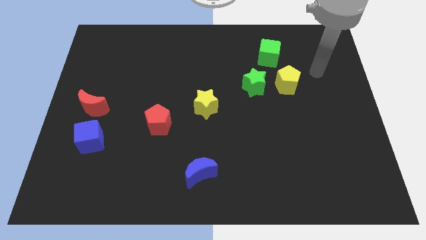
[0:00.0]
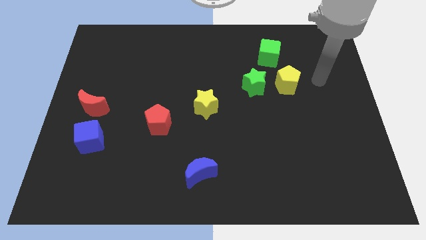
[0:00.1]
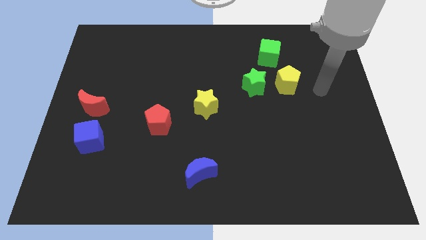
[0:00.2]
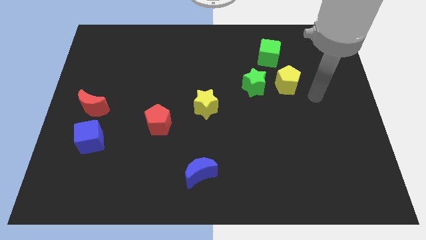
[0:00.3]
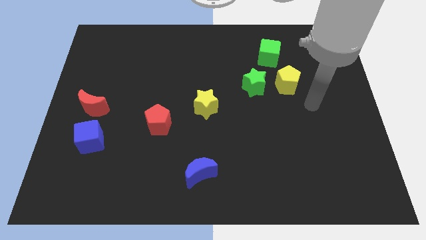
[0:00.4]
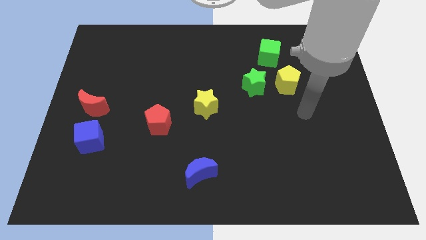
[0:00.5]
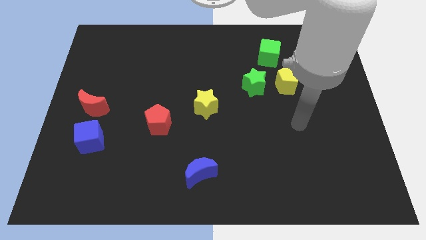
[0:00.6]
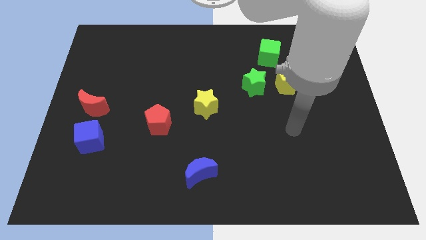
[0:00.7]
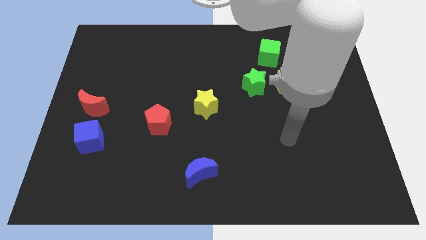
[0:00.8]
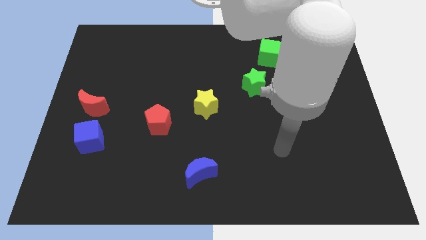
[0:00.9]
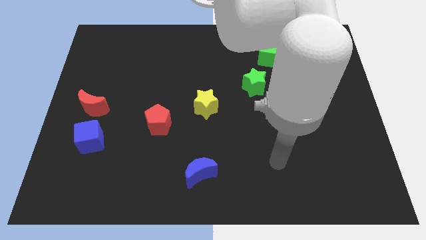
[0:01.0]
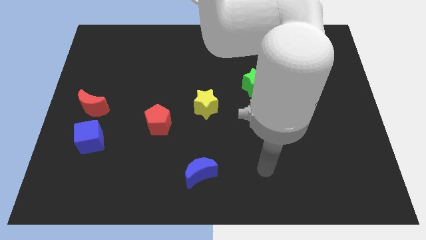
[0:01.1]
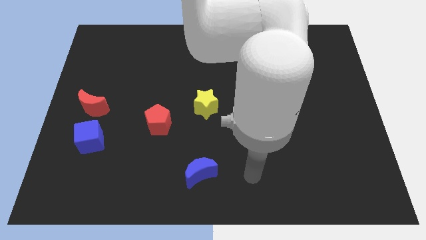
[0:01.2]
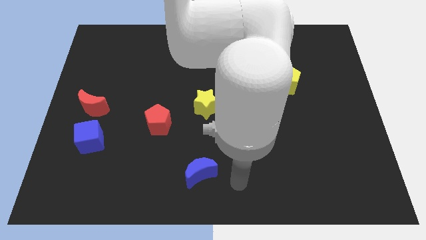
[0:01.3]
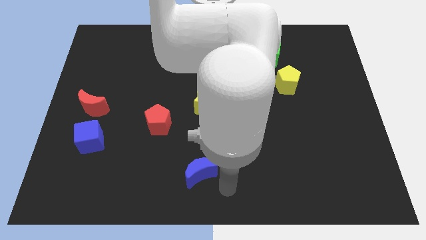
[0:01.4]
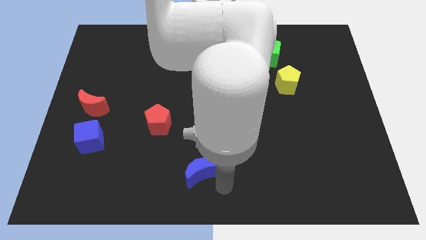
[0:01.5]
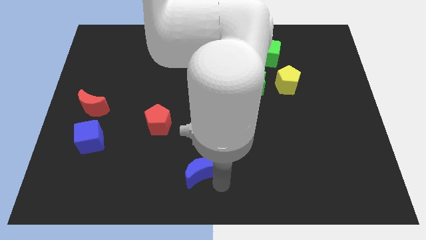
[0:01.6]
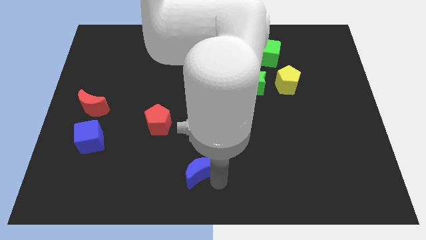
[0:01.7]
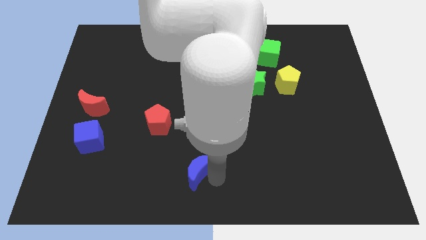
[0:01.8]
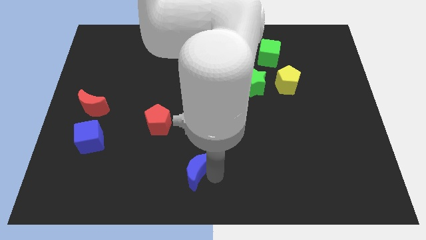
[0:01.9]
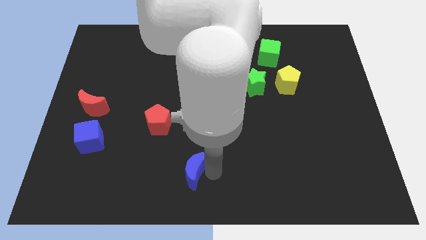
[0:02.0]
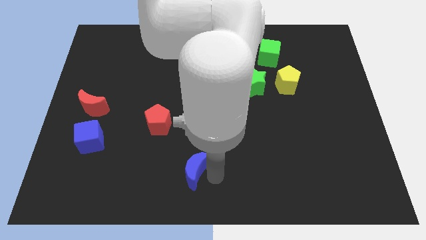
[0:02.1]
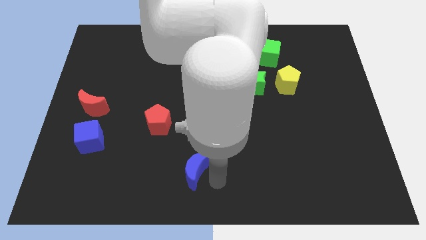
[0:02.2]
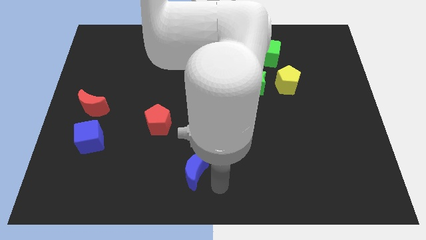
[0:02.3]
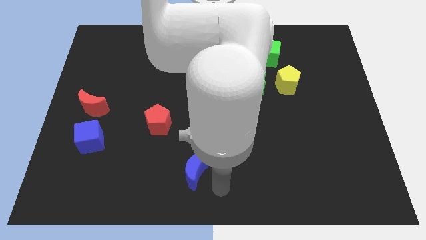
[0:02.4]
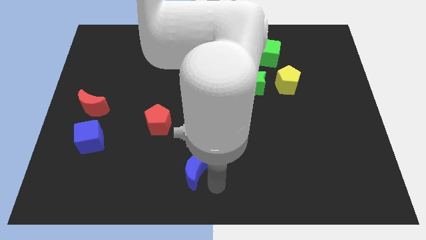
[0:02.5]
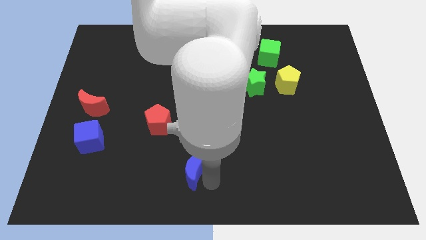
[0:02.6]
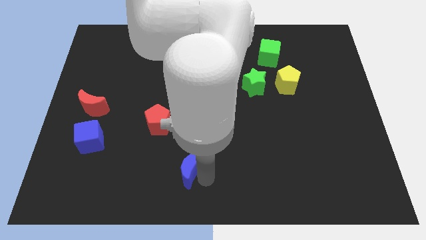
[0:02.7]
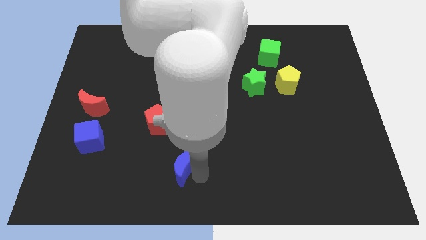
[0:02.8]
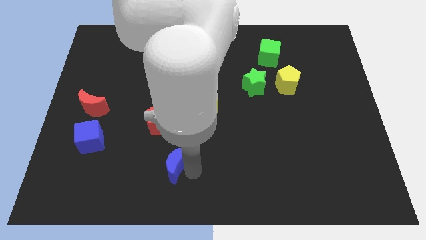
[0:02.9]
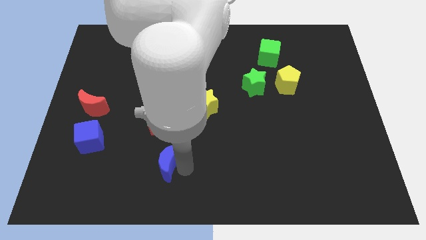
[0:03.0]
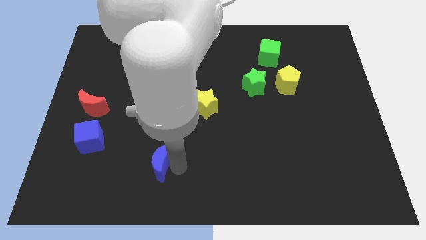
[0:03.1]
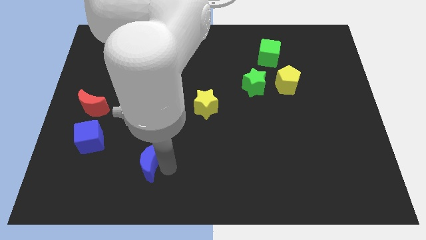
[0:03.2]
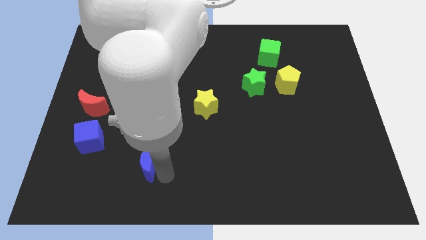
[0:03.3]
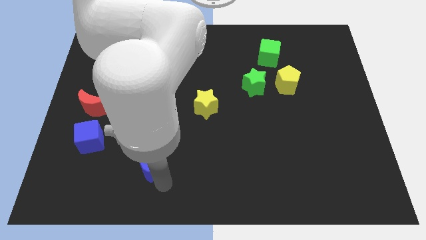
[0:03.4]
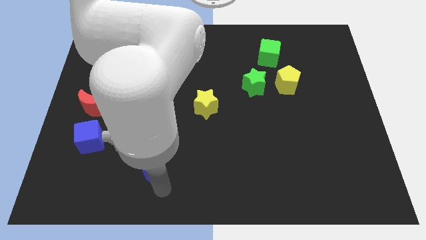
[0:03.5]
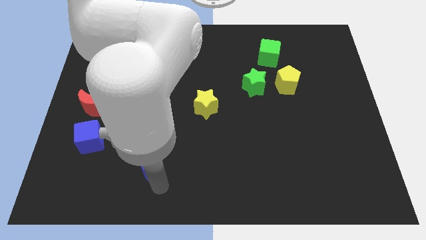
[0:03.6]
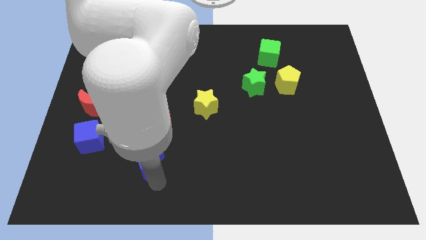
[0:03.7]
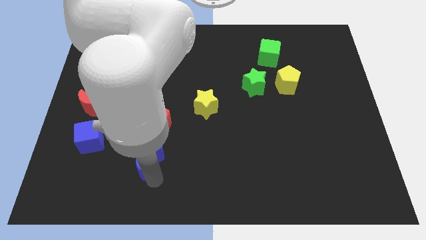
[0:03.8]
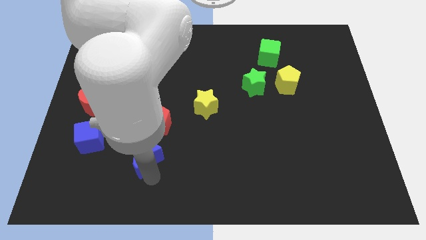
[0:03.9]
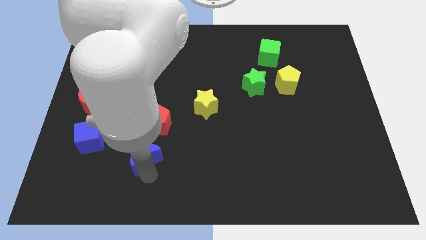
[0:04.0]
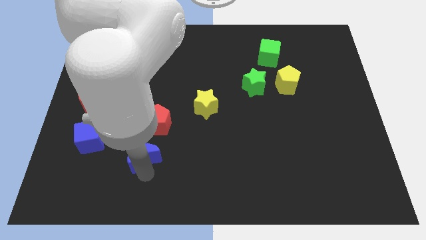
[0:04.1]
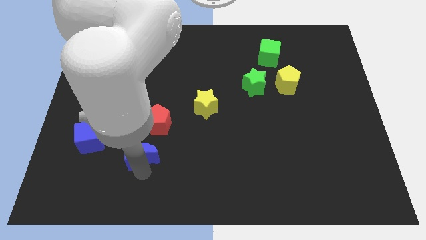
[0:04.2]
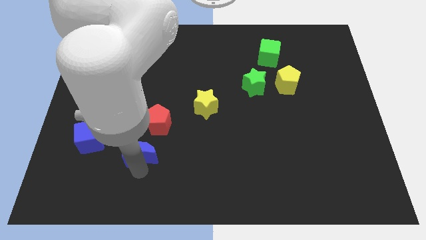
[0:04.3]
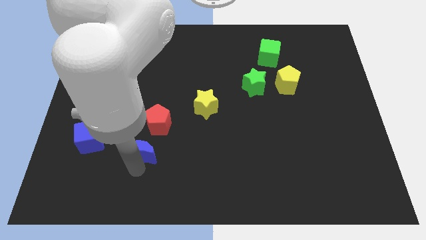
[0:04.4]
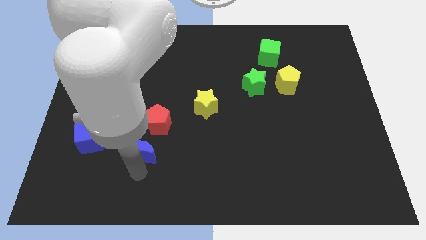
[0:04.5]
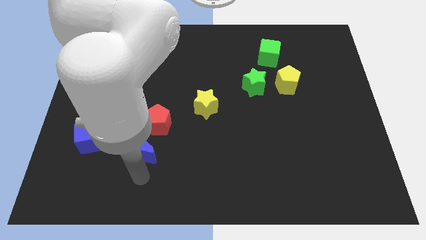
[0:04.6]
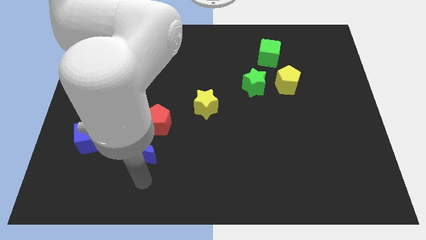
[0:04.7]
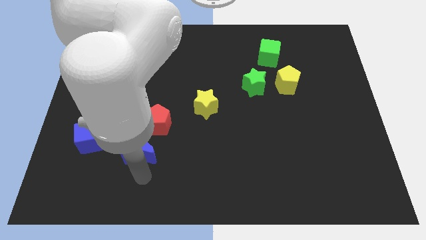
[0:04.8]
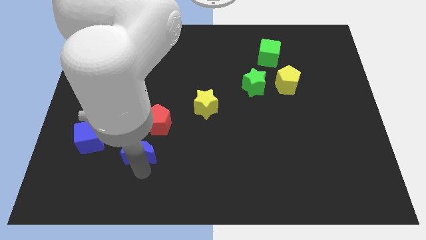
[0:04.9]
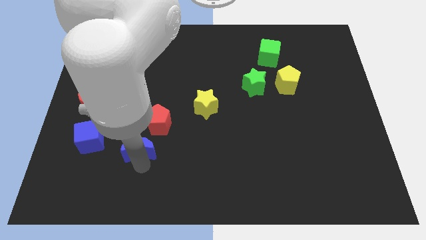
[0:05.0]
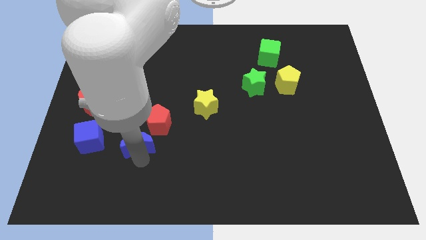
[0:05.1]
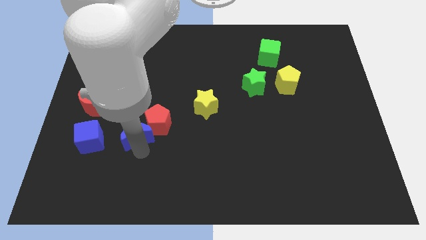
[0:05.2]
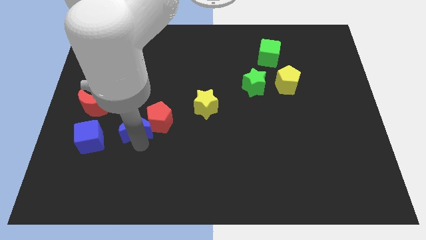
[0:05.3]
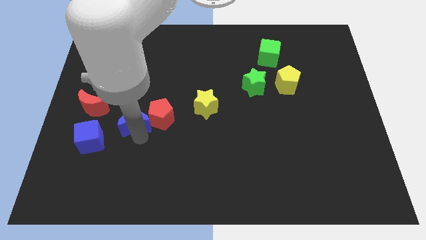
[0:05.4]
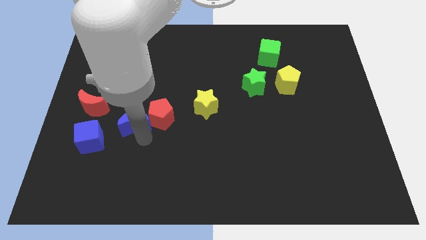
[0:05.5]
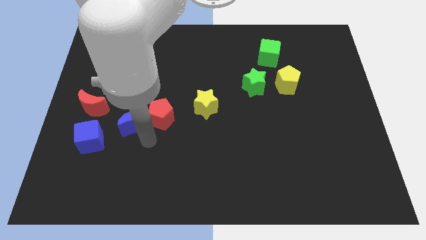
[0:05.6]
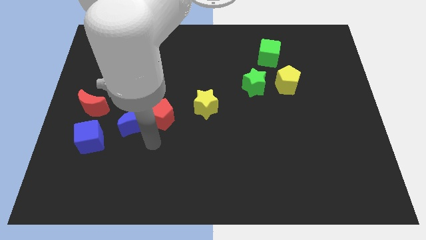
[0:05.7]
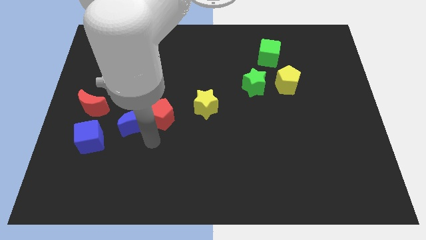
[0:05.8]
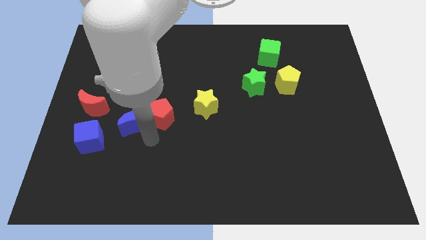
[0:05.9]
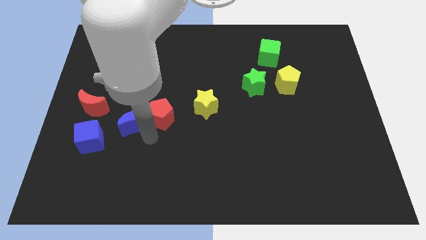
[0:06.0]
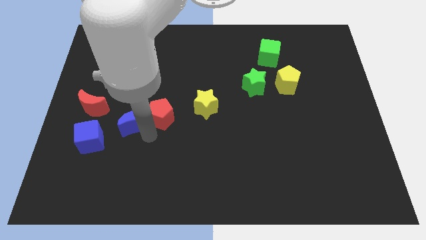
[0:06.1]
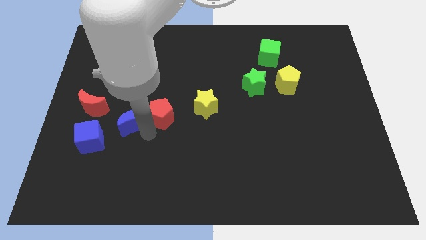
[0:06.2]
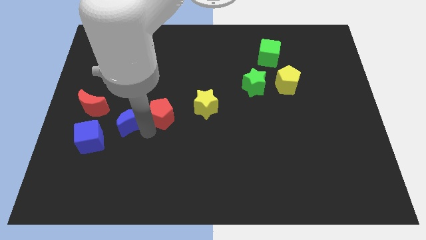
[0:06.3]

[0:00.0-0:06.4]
push the blue moon upwards and then to the left

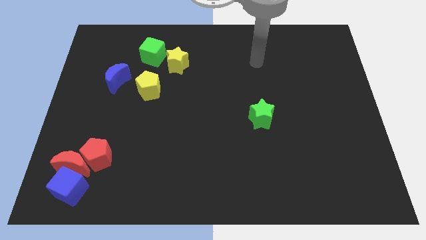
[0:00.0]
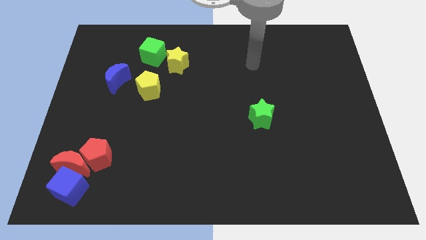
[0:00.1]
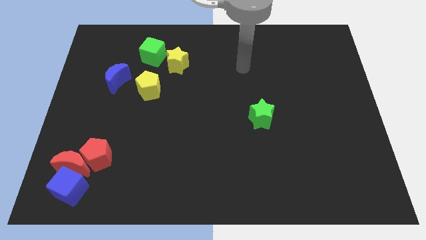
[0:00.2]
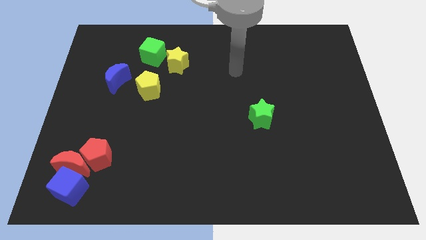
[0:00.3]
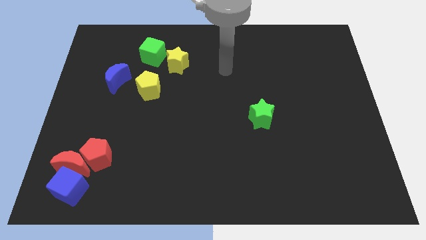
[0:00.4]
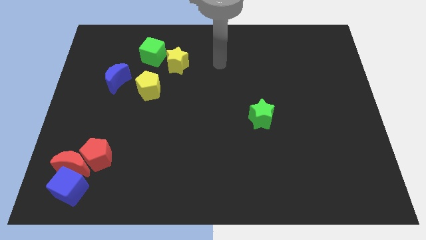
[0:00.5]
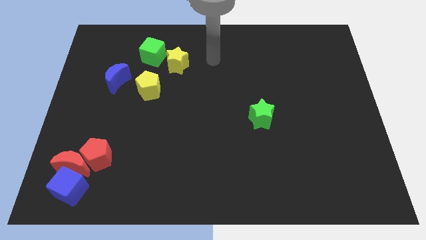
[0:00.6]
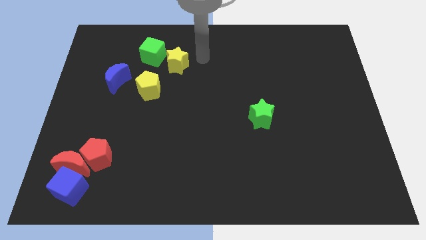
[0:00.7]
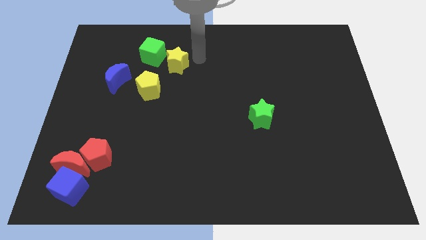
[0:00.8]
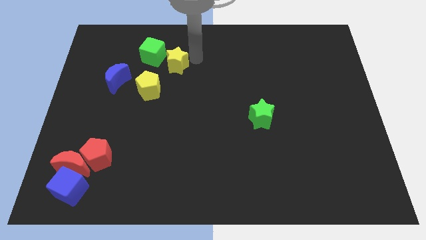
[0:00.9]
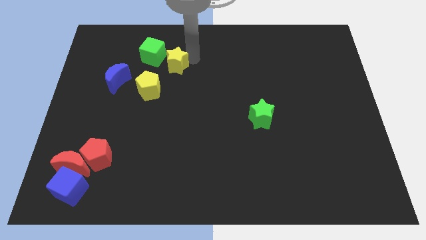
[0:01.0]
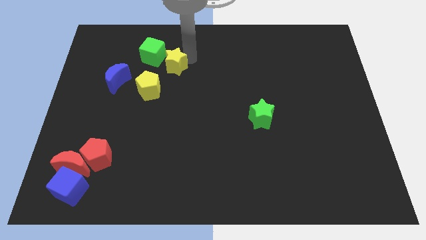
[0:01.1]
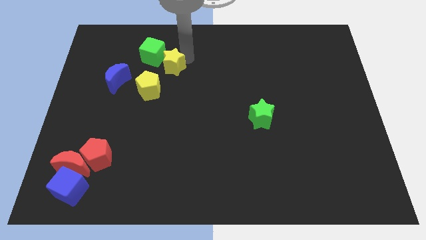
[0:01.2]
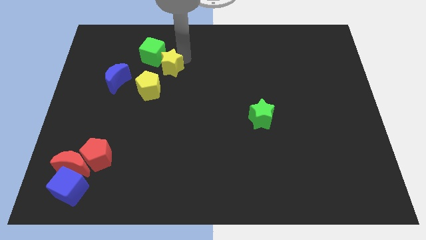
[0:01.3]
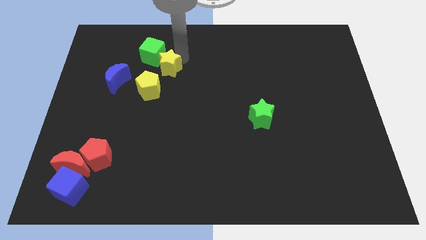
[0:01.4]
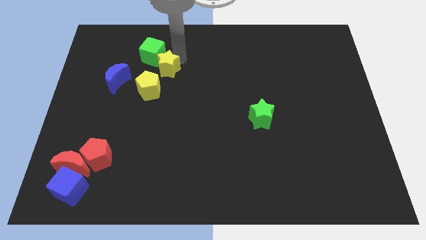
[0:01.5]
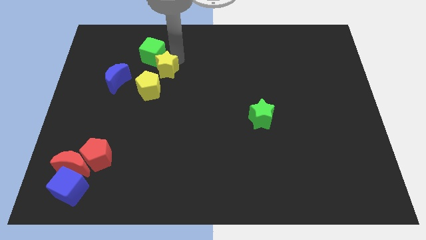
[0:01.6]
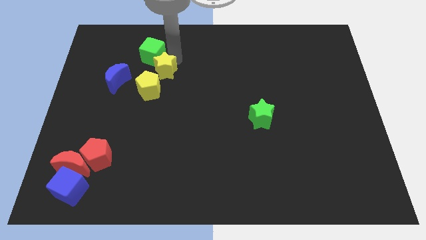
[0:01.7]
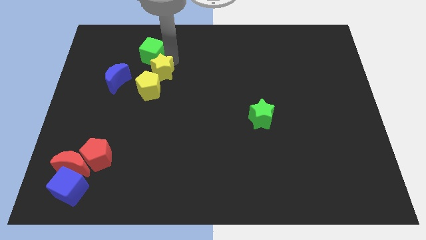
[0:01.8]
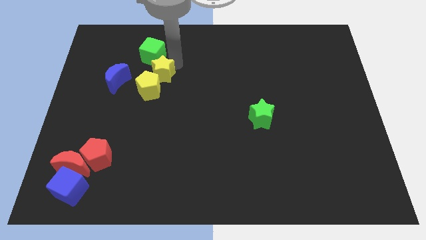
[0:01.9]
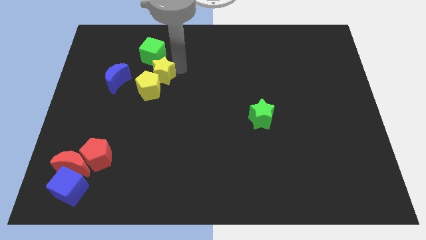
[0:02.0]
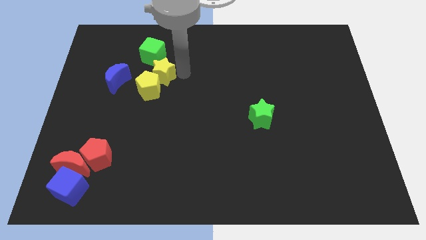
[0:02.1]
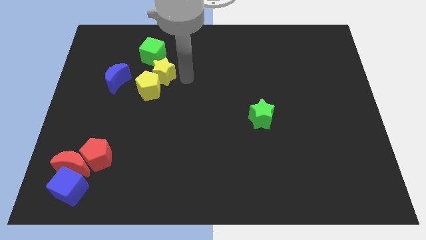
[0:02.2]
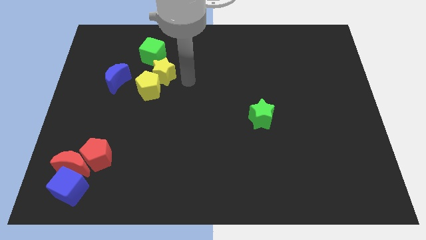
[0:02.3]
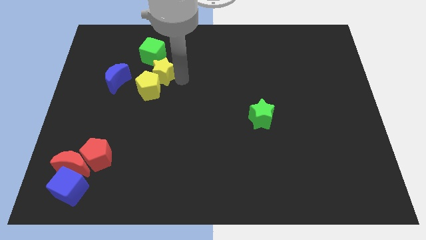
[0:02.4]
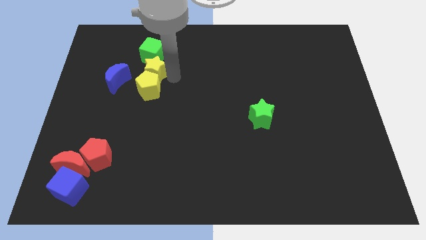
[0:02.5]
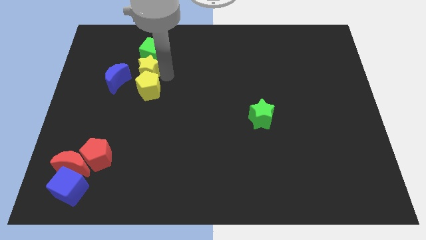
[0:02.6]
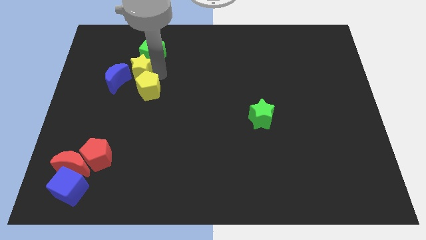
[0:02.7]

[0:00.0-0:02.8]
move the yellow star a bit to the left
